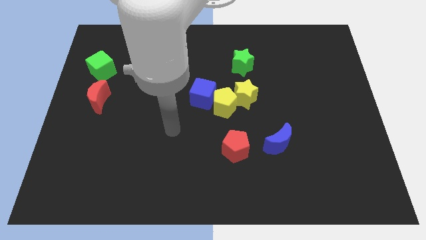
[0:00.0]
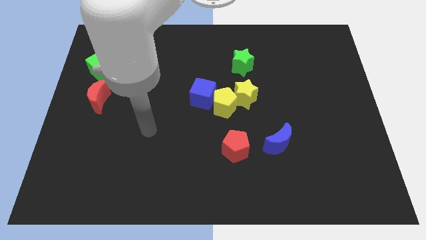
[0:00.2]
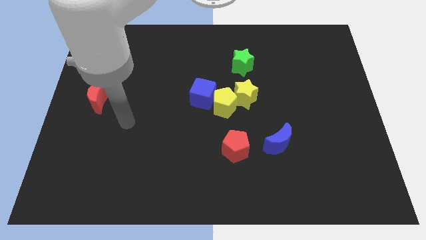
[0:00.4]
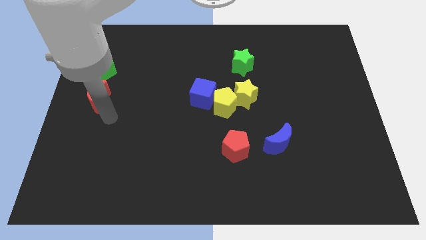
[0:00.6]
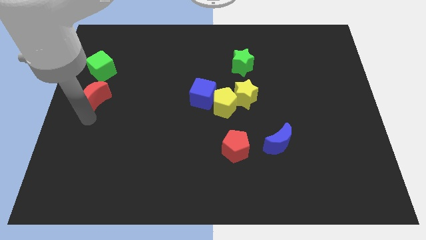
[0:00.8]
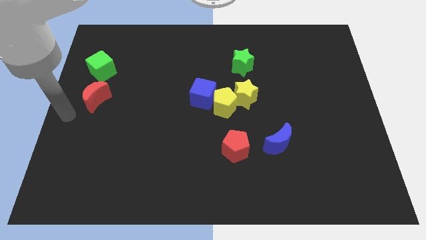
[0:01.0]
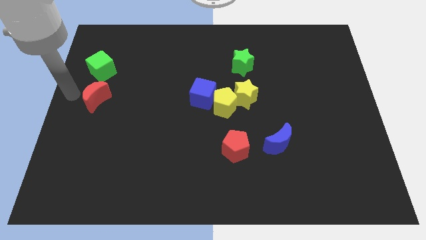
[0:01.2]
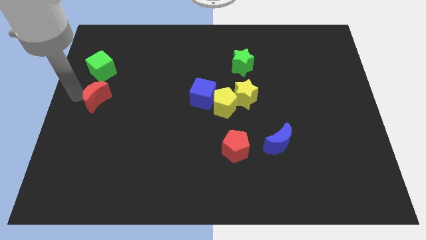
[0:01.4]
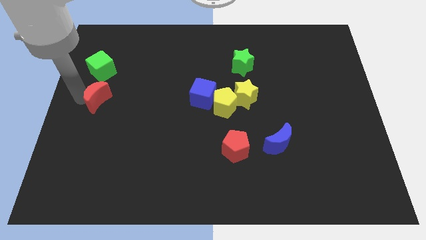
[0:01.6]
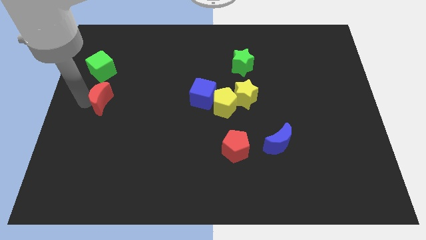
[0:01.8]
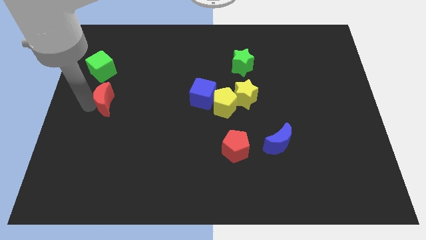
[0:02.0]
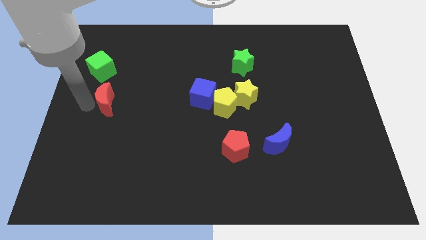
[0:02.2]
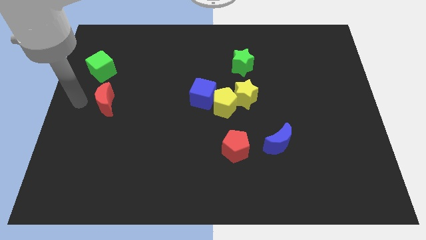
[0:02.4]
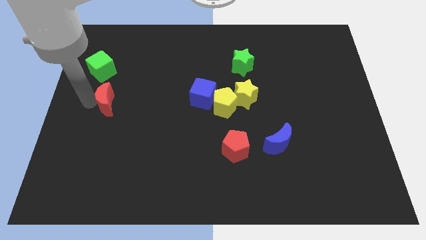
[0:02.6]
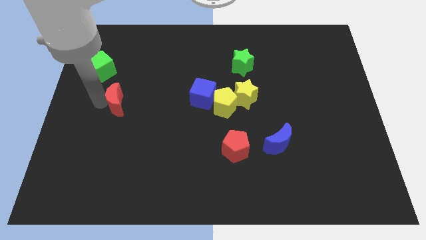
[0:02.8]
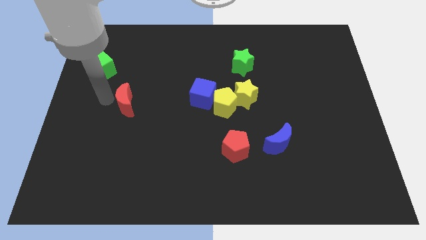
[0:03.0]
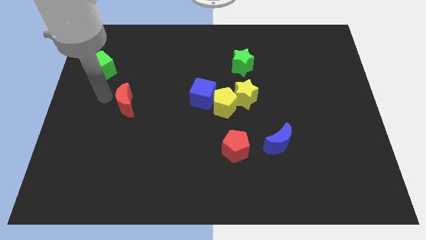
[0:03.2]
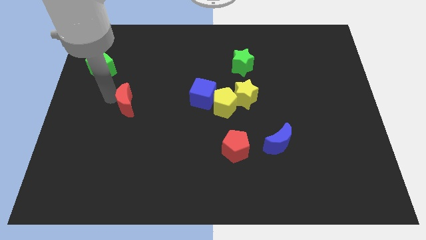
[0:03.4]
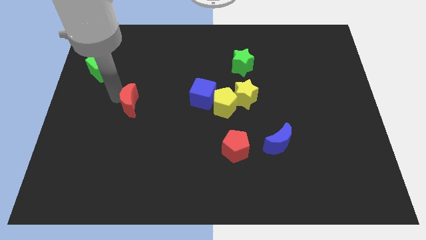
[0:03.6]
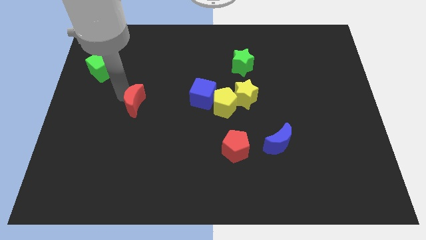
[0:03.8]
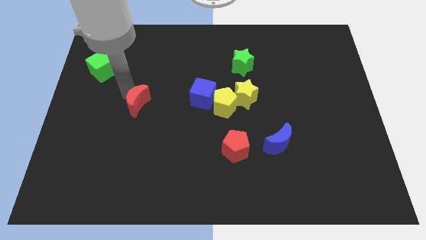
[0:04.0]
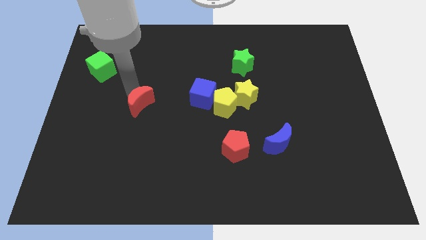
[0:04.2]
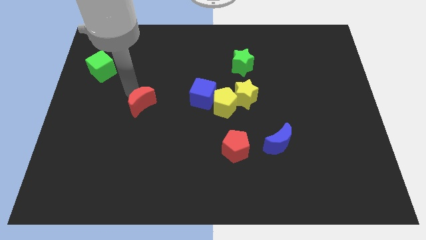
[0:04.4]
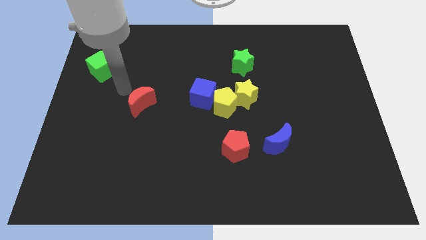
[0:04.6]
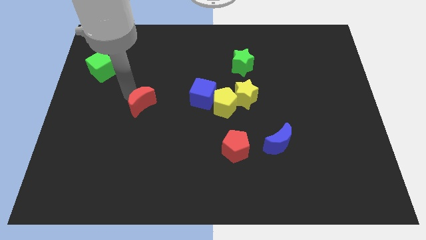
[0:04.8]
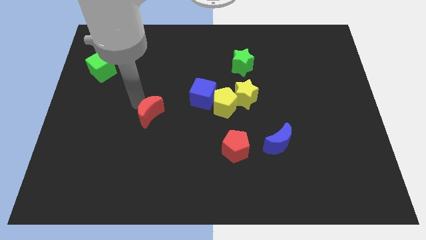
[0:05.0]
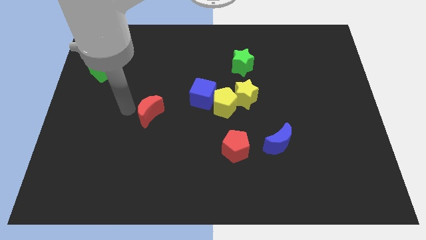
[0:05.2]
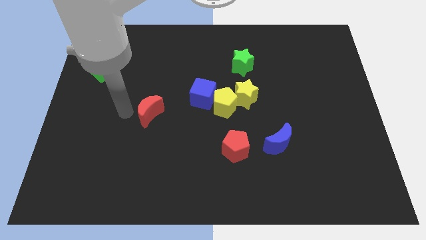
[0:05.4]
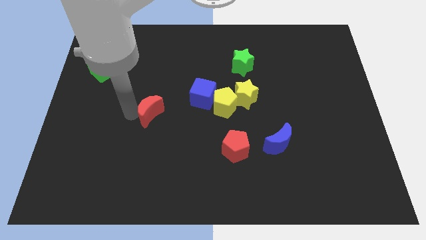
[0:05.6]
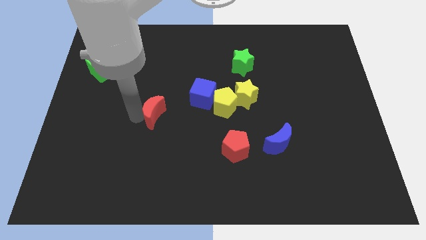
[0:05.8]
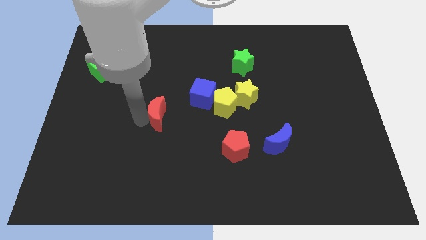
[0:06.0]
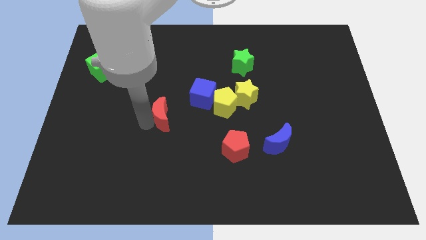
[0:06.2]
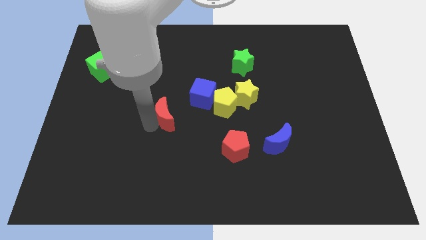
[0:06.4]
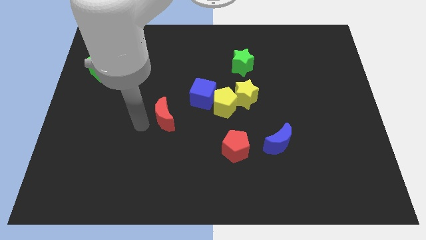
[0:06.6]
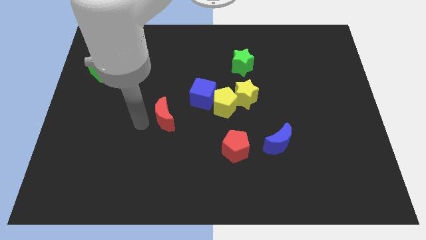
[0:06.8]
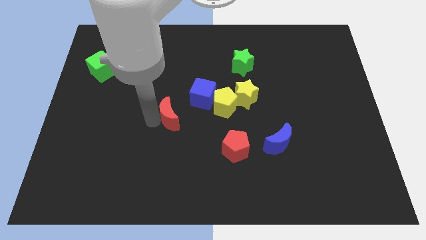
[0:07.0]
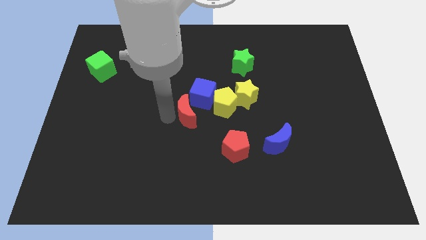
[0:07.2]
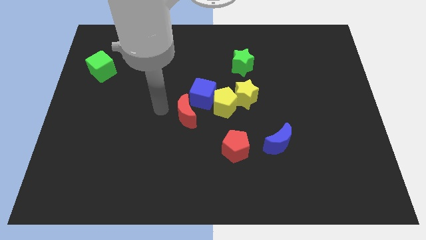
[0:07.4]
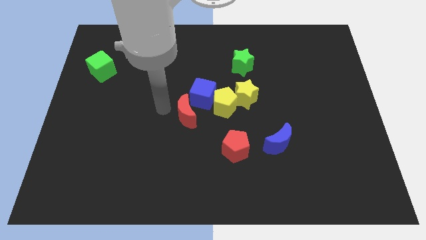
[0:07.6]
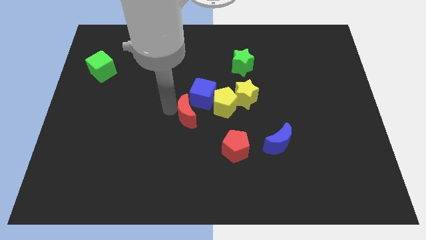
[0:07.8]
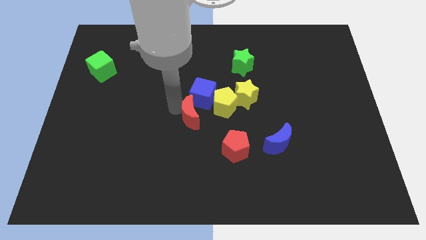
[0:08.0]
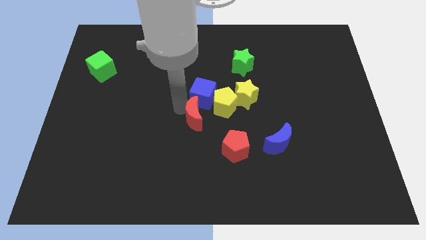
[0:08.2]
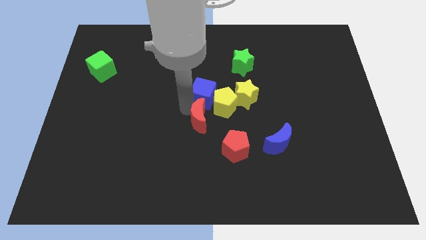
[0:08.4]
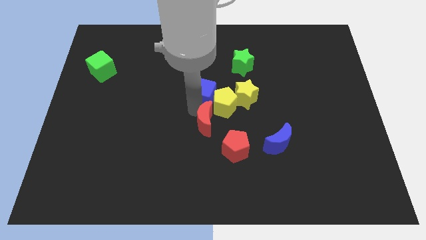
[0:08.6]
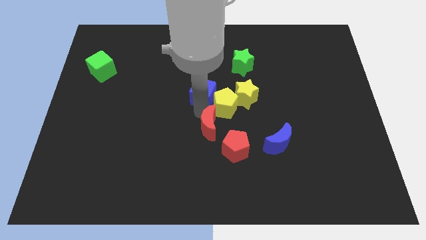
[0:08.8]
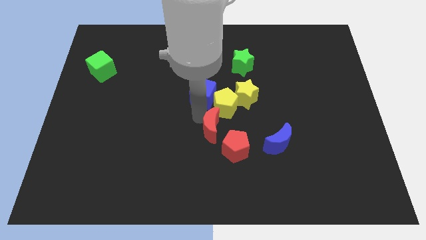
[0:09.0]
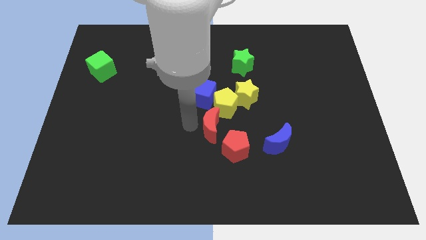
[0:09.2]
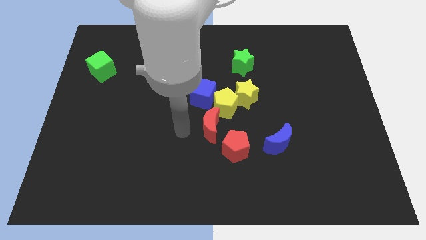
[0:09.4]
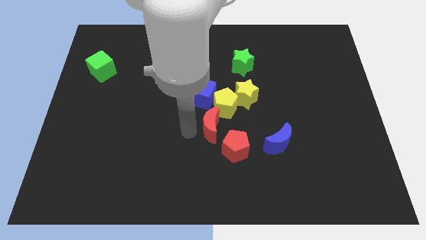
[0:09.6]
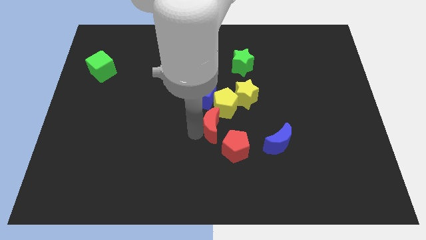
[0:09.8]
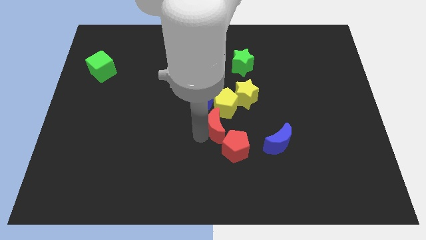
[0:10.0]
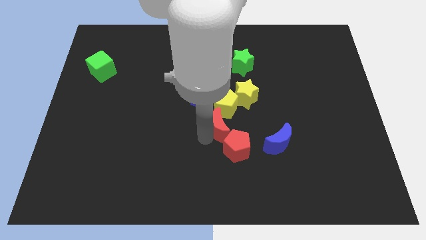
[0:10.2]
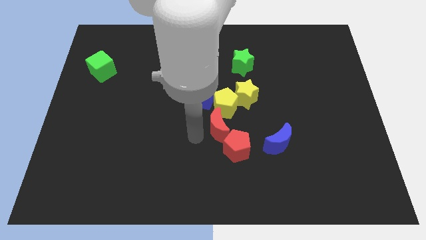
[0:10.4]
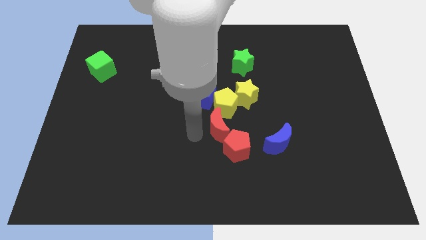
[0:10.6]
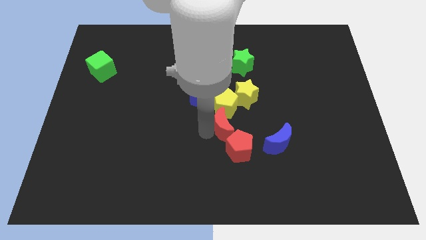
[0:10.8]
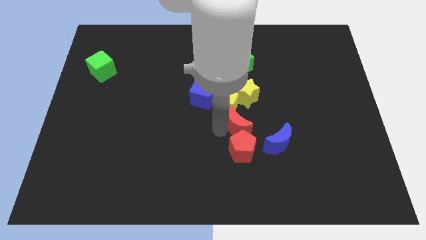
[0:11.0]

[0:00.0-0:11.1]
put the red moon to the top left side of the blue moon
